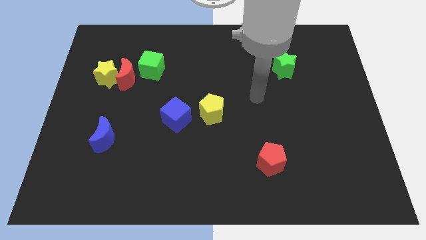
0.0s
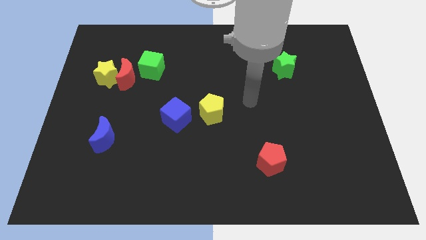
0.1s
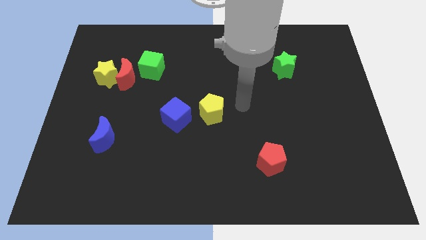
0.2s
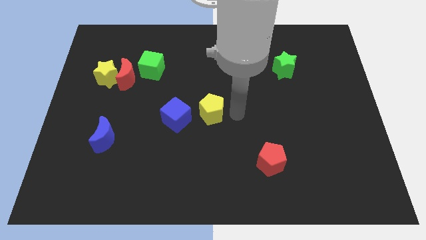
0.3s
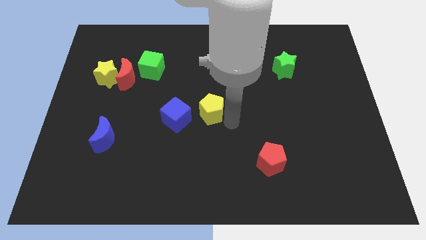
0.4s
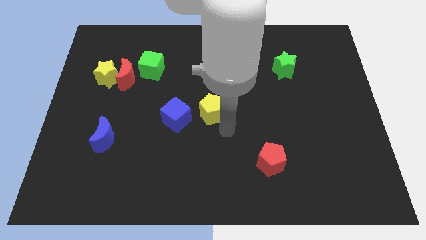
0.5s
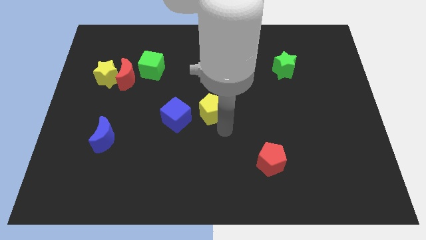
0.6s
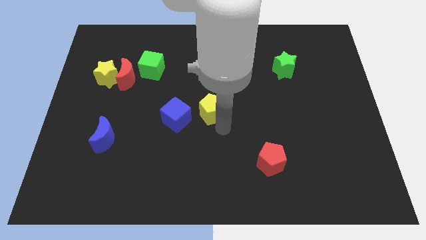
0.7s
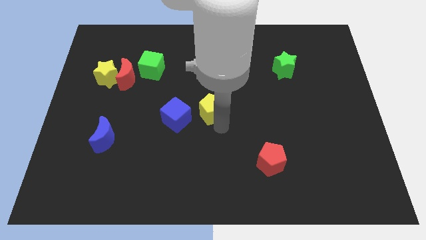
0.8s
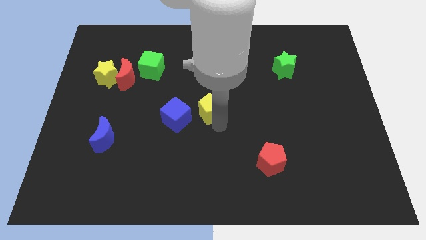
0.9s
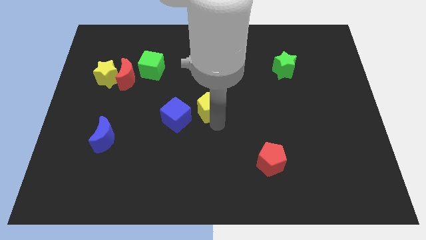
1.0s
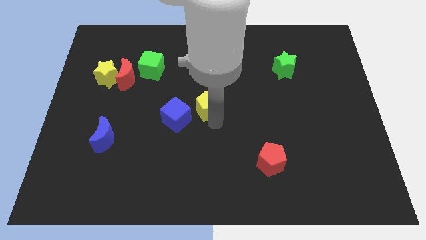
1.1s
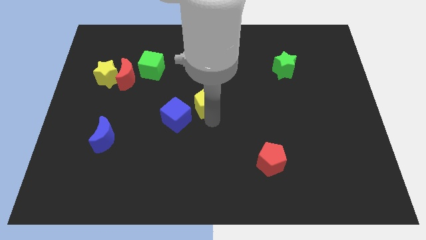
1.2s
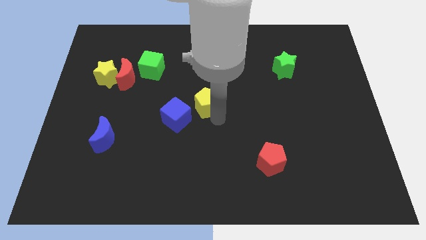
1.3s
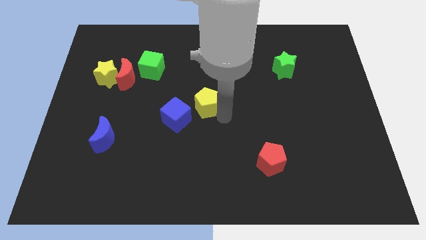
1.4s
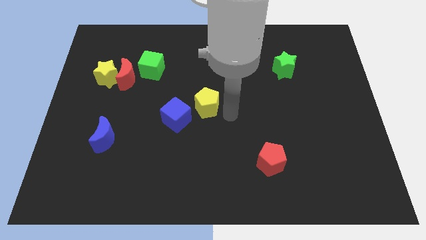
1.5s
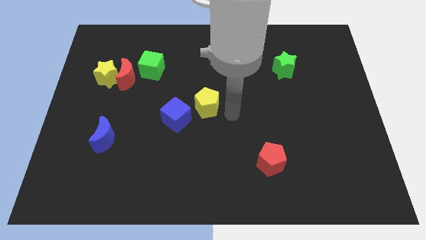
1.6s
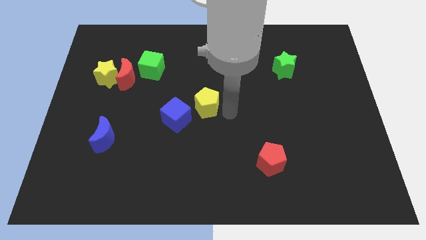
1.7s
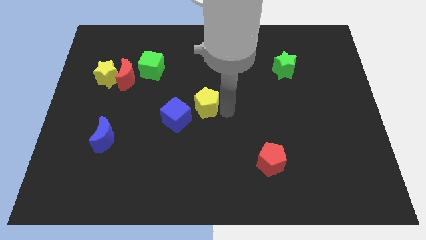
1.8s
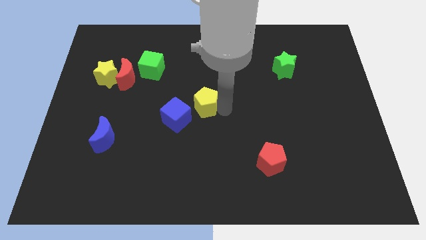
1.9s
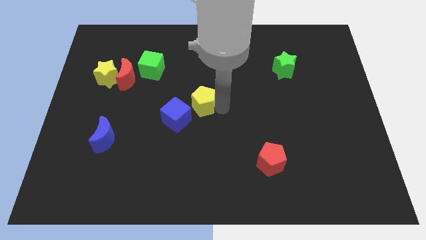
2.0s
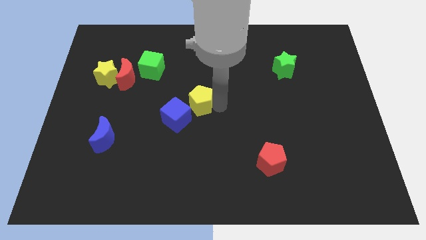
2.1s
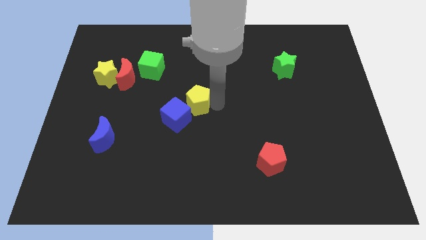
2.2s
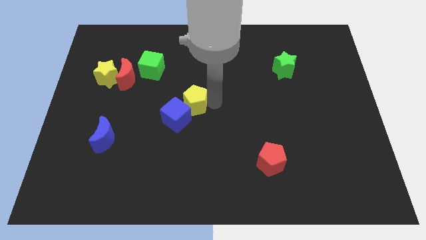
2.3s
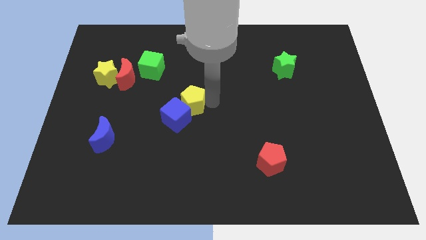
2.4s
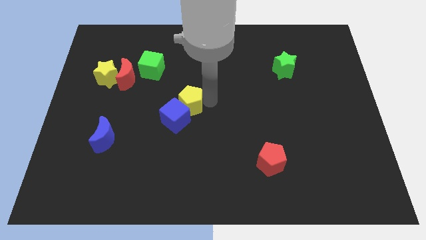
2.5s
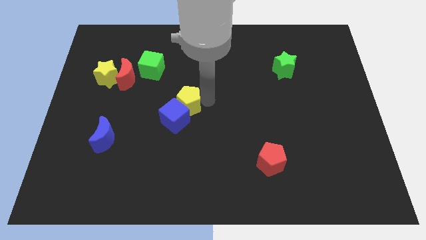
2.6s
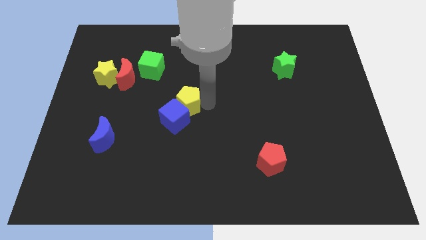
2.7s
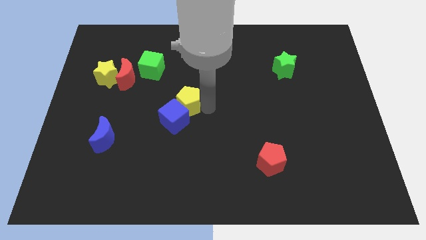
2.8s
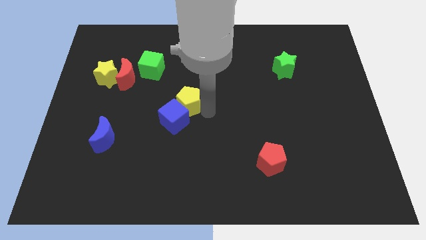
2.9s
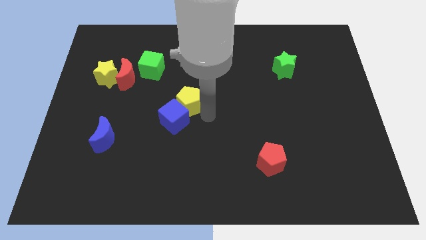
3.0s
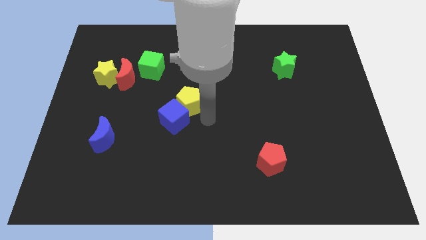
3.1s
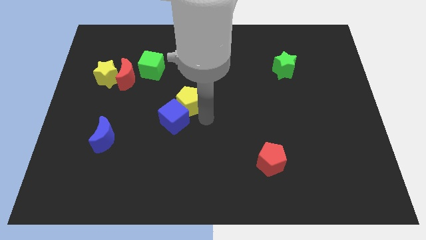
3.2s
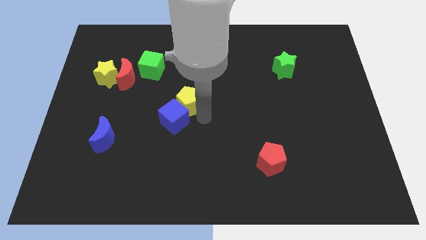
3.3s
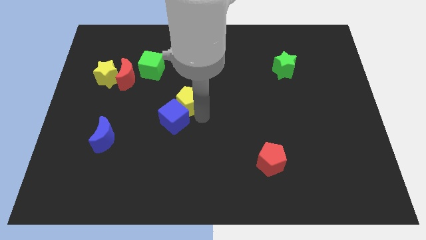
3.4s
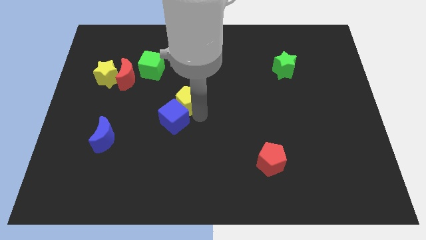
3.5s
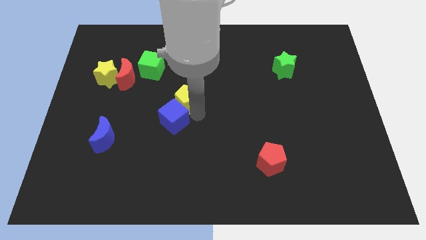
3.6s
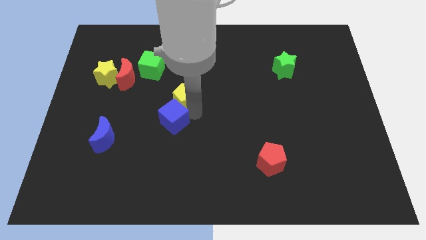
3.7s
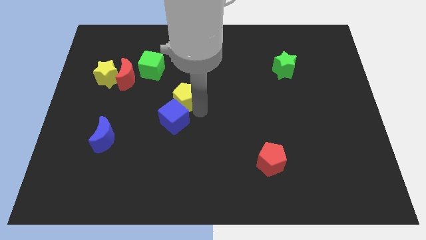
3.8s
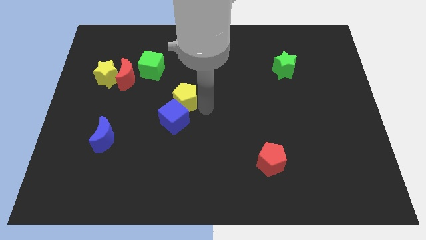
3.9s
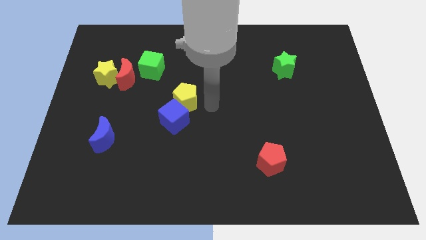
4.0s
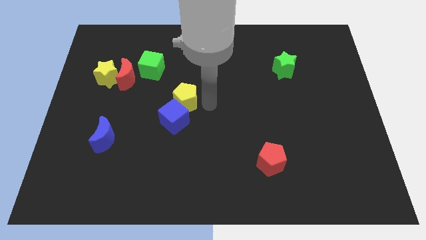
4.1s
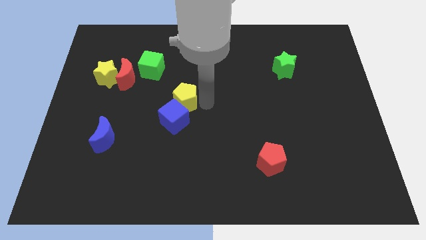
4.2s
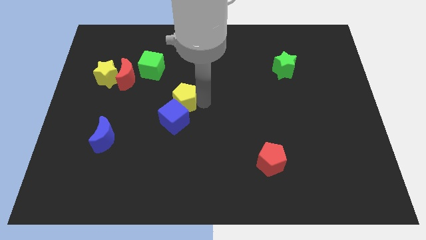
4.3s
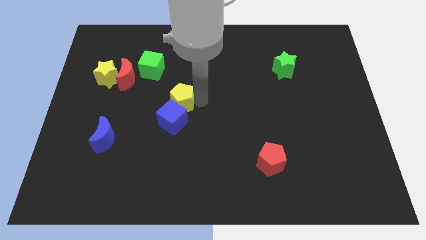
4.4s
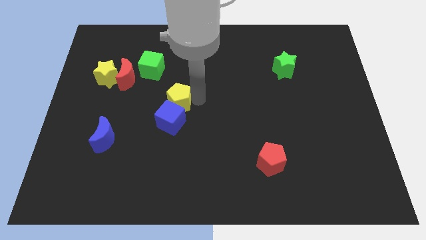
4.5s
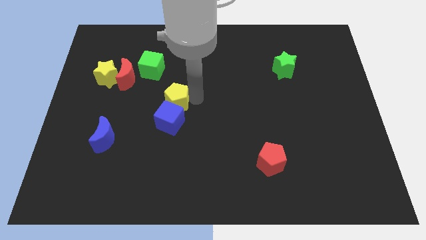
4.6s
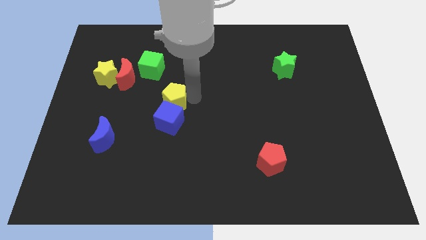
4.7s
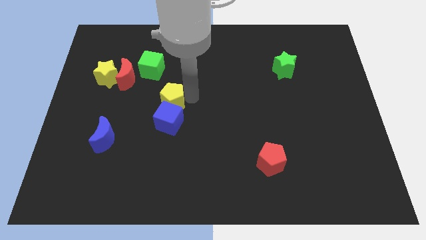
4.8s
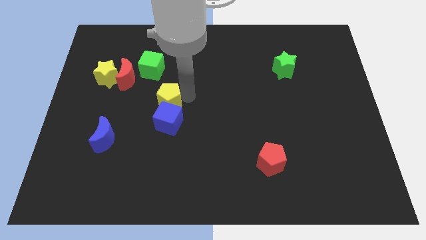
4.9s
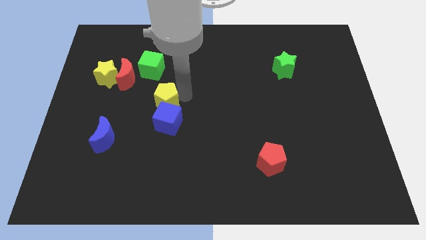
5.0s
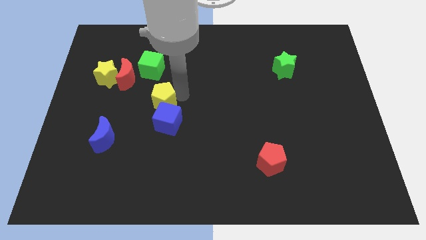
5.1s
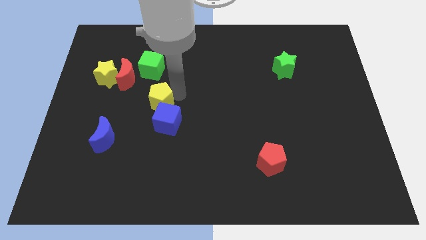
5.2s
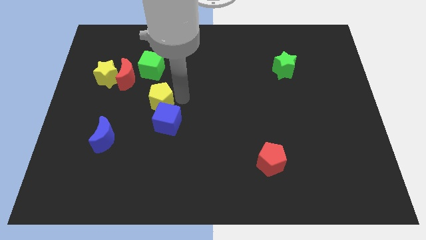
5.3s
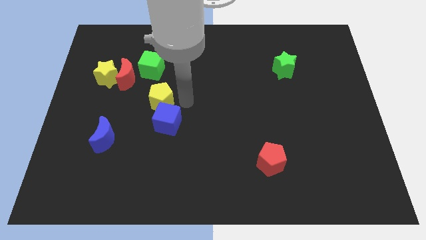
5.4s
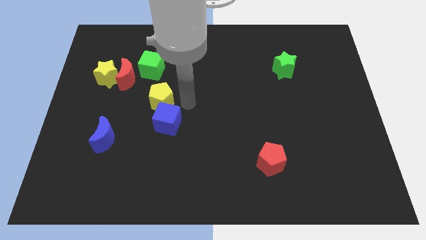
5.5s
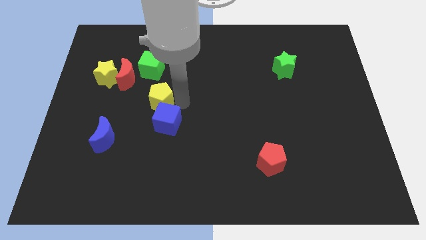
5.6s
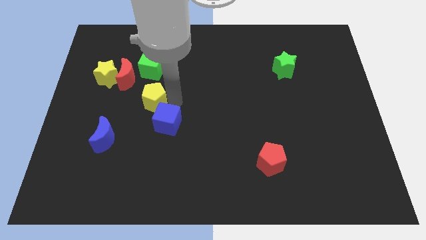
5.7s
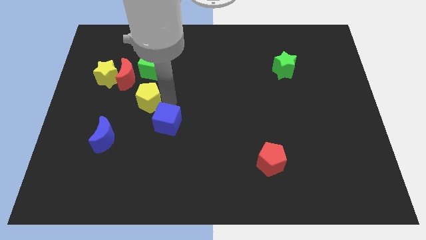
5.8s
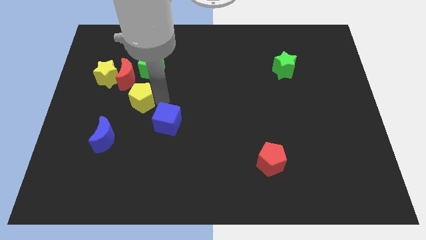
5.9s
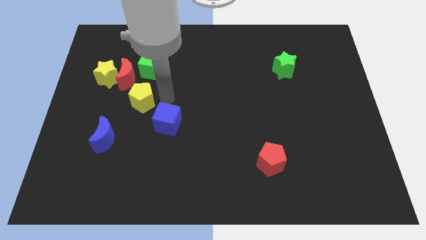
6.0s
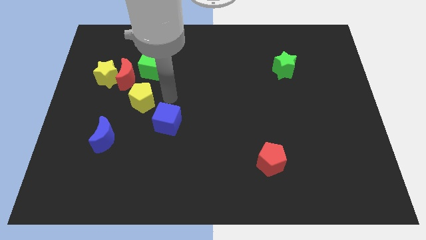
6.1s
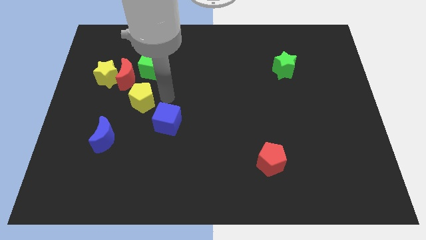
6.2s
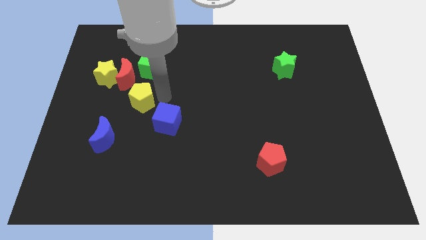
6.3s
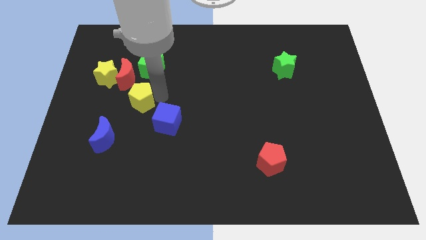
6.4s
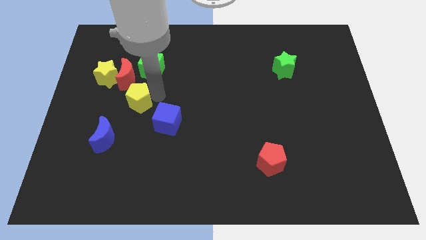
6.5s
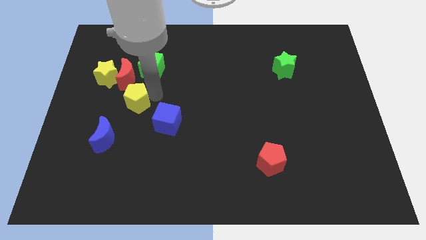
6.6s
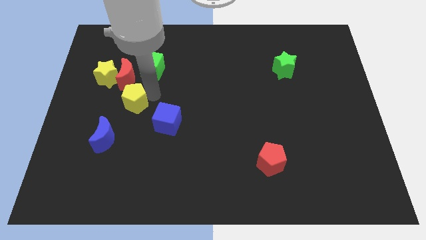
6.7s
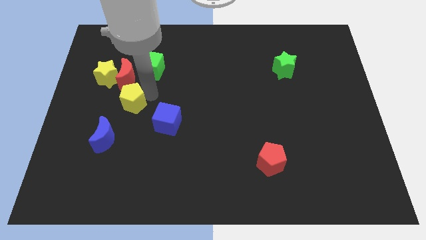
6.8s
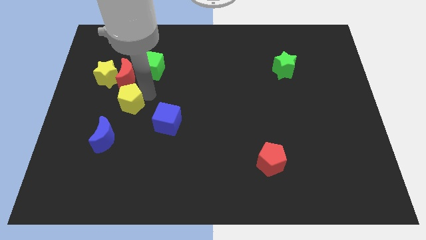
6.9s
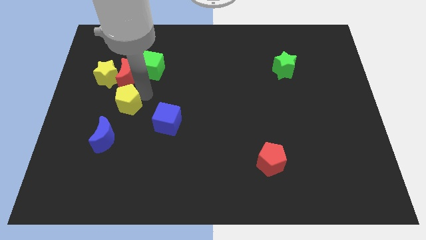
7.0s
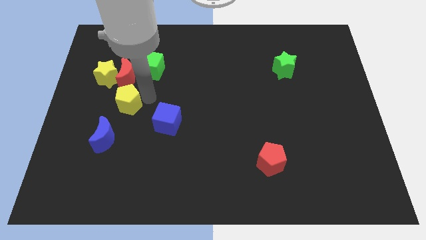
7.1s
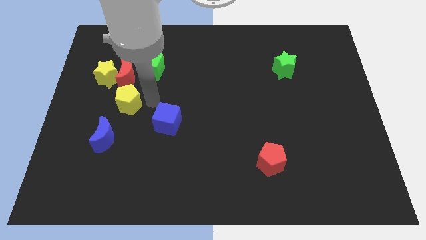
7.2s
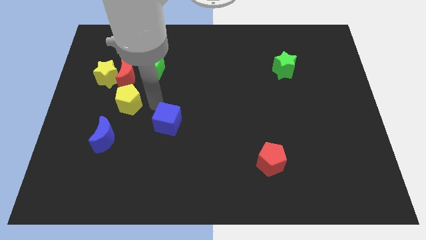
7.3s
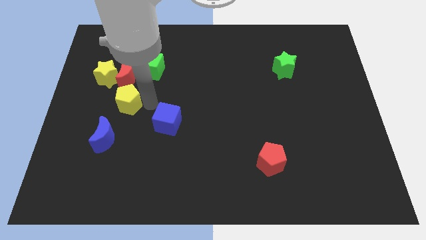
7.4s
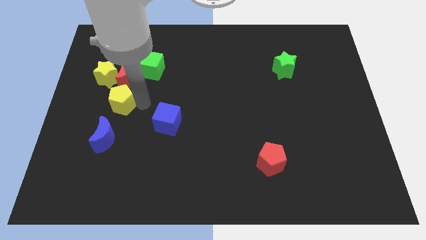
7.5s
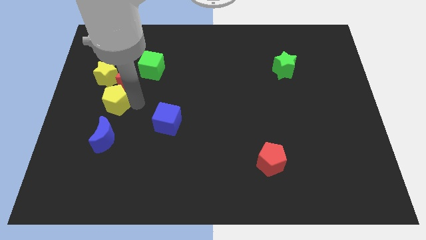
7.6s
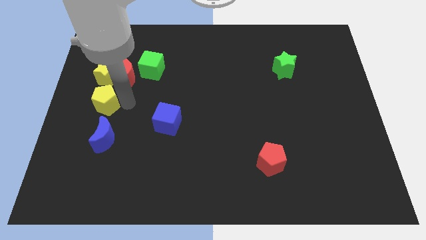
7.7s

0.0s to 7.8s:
push the yellow pentagon to the left side
